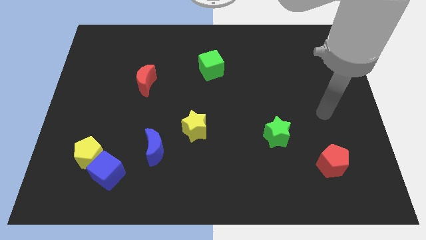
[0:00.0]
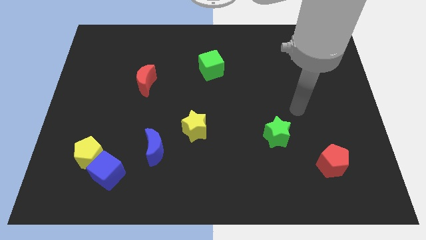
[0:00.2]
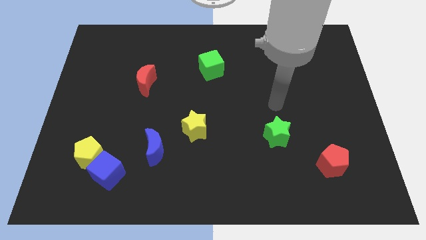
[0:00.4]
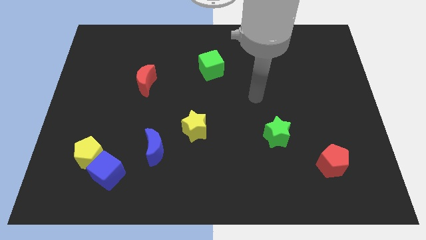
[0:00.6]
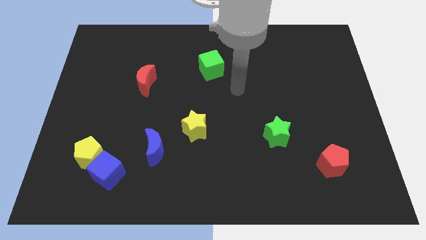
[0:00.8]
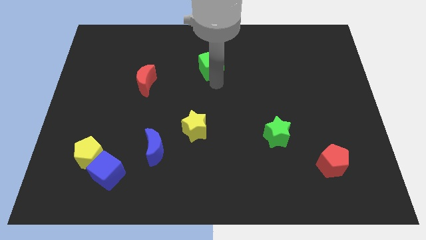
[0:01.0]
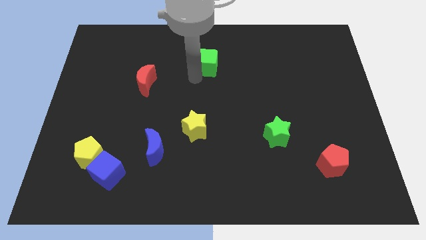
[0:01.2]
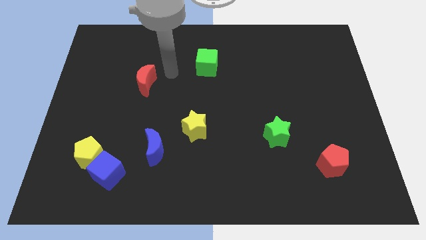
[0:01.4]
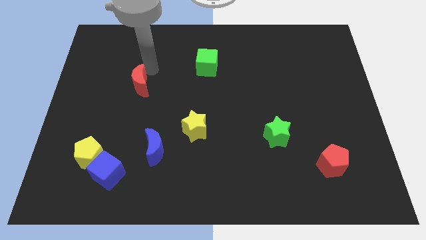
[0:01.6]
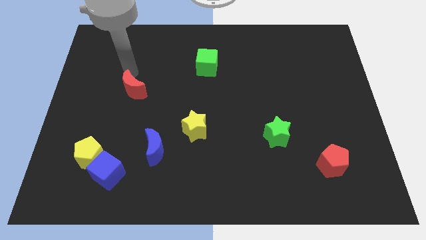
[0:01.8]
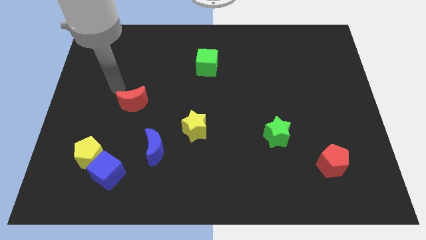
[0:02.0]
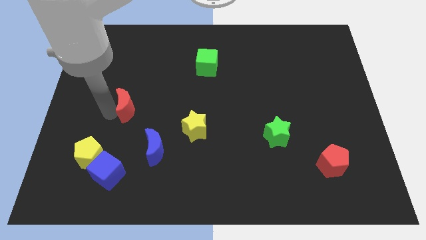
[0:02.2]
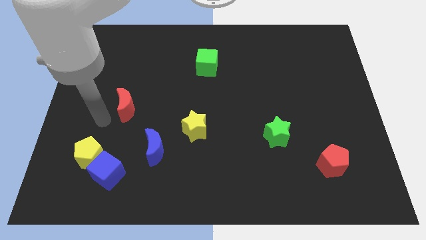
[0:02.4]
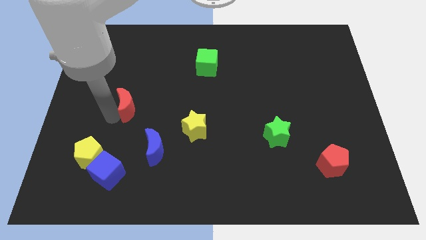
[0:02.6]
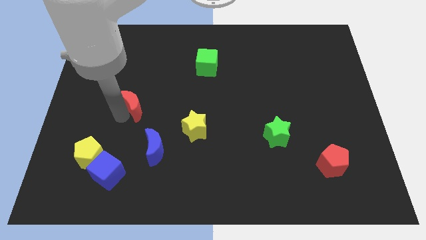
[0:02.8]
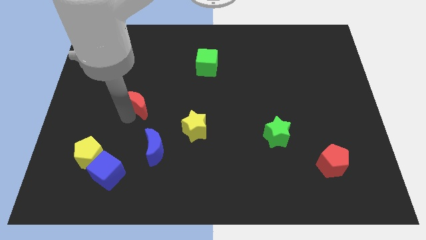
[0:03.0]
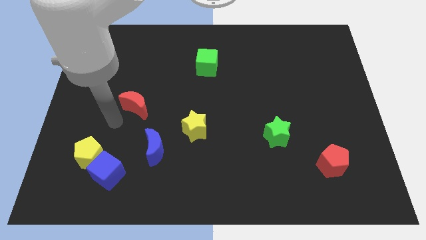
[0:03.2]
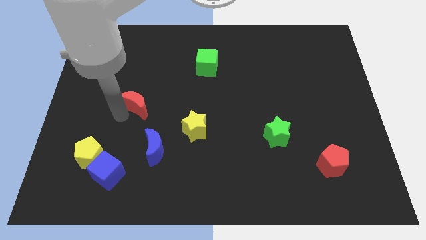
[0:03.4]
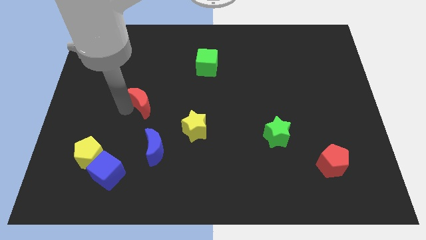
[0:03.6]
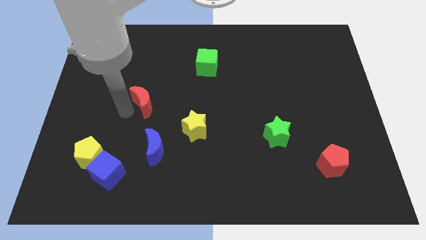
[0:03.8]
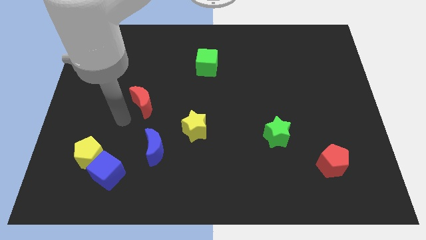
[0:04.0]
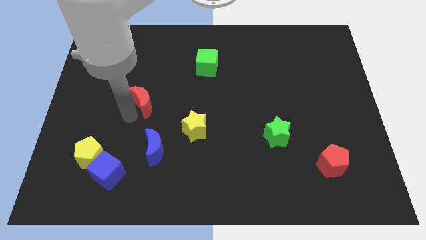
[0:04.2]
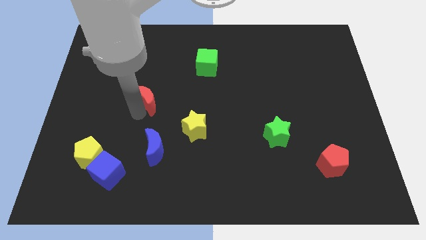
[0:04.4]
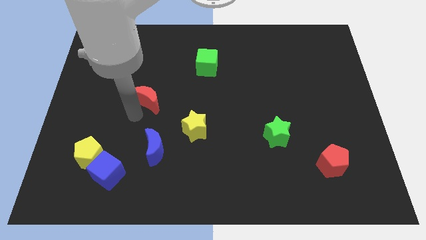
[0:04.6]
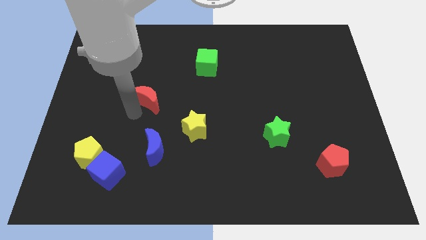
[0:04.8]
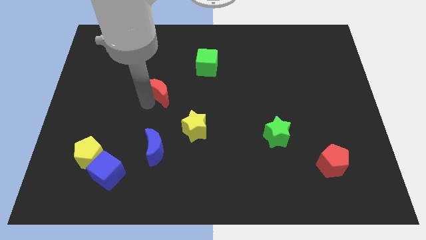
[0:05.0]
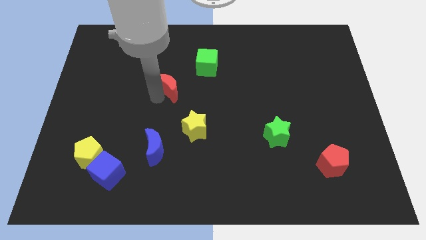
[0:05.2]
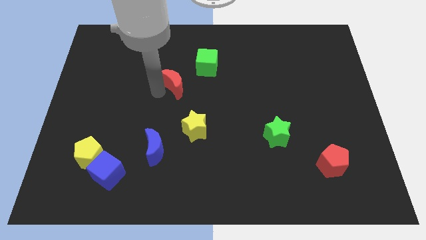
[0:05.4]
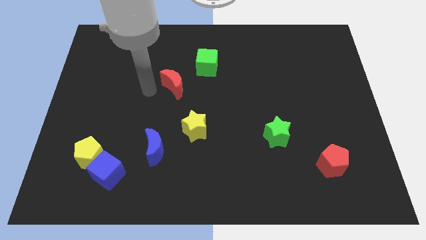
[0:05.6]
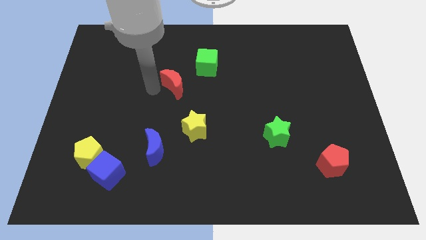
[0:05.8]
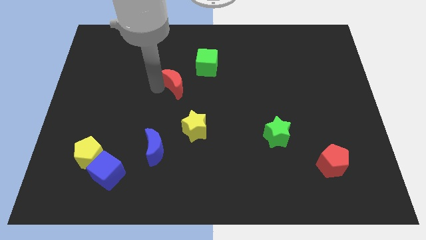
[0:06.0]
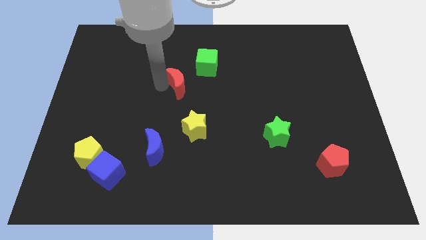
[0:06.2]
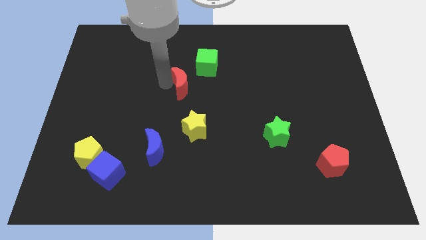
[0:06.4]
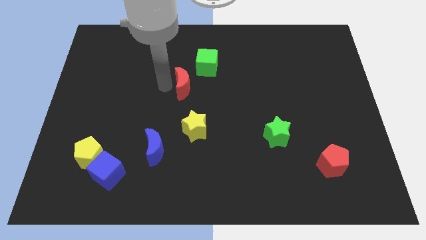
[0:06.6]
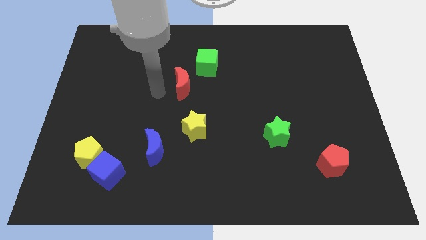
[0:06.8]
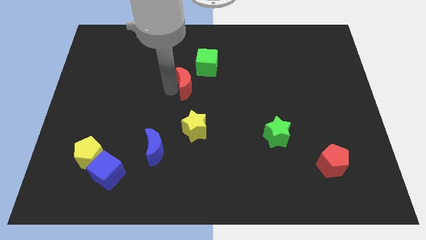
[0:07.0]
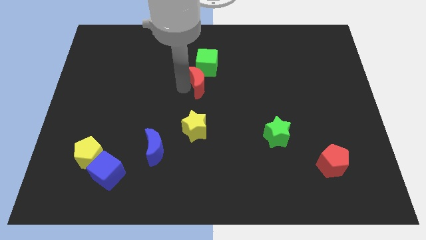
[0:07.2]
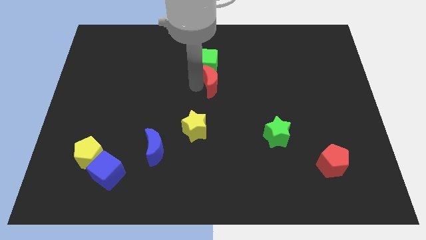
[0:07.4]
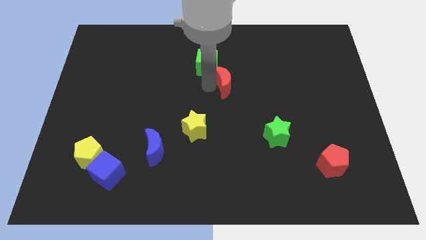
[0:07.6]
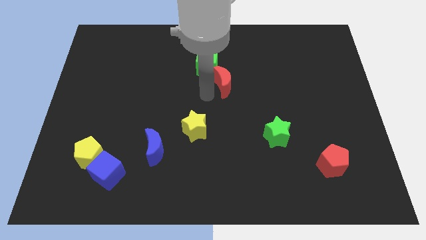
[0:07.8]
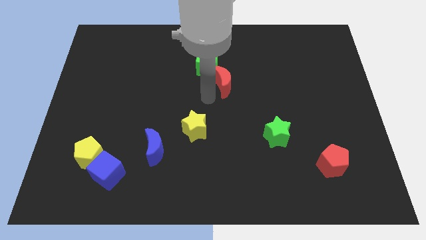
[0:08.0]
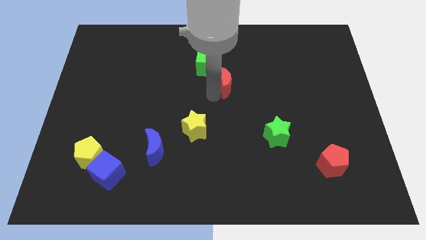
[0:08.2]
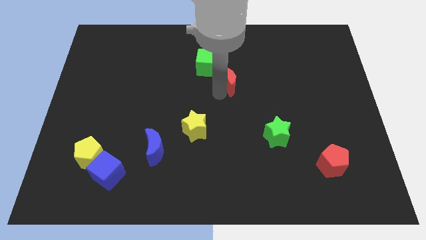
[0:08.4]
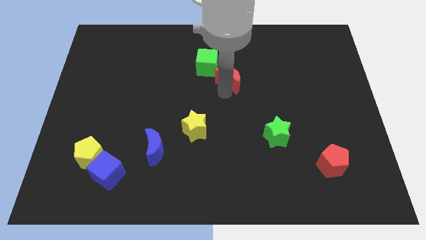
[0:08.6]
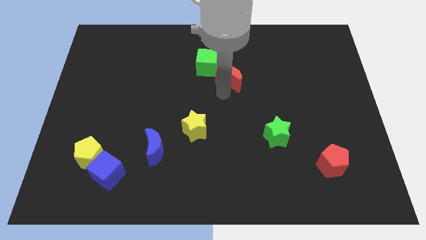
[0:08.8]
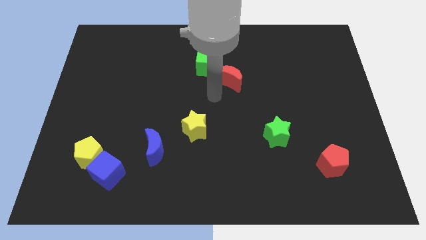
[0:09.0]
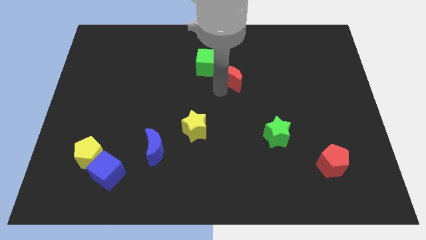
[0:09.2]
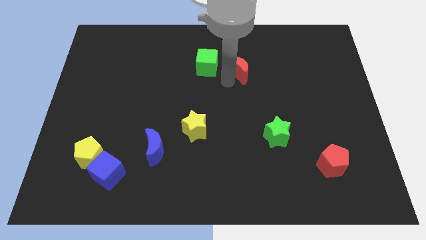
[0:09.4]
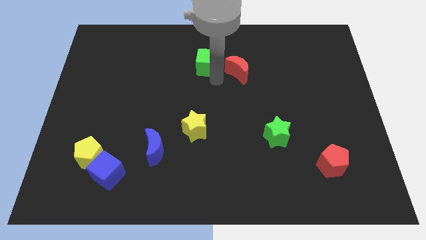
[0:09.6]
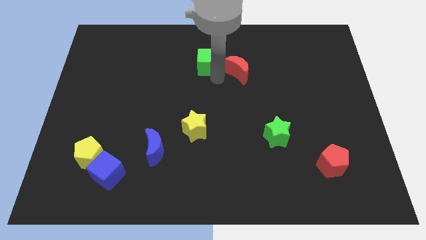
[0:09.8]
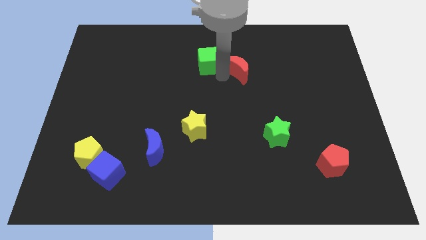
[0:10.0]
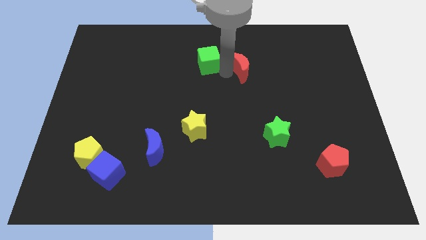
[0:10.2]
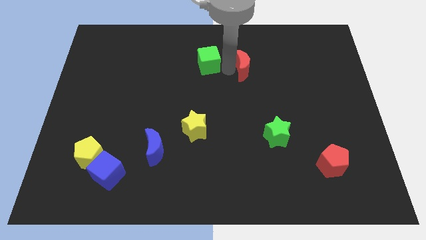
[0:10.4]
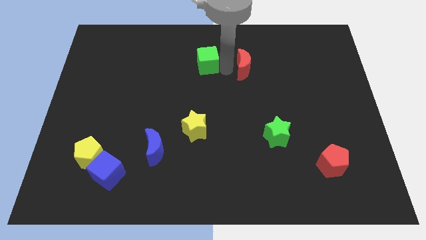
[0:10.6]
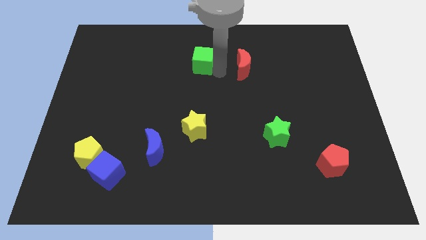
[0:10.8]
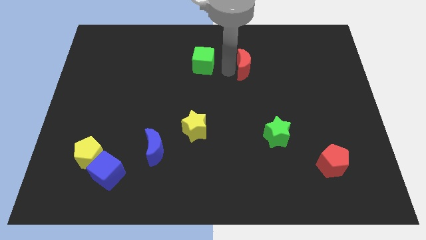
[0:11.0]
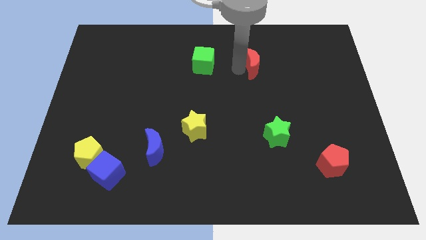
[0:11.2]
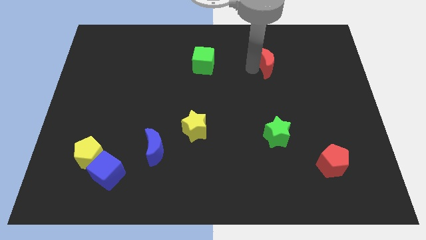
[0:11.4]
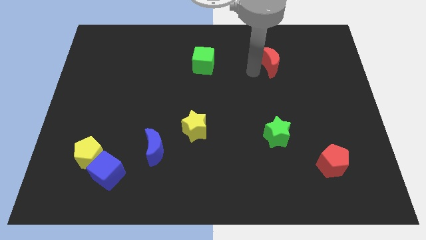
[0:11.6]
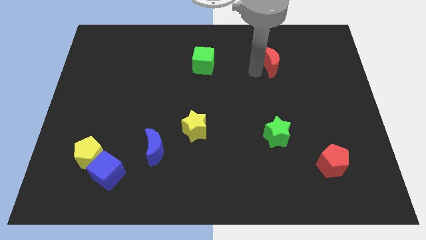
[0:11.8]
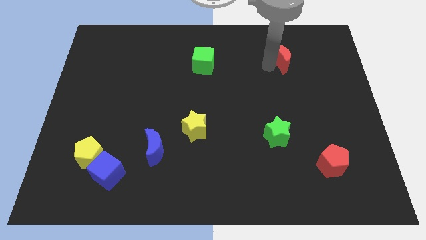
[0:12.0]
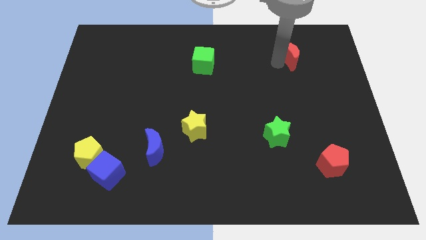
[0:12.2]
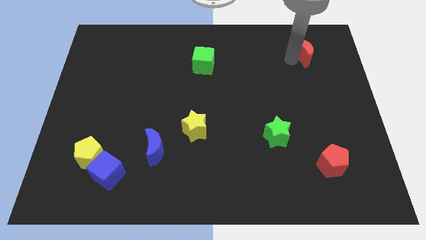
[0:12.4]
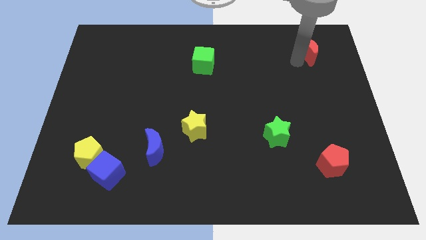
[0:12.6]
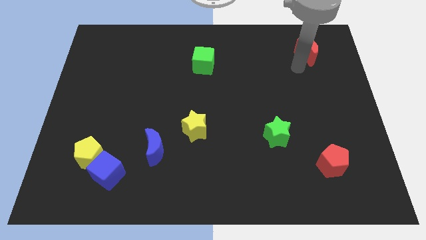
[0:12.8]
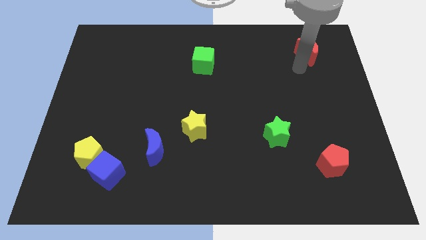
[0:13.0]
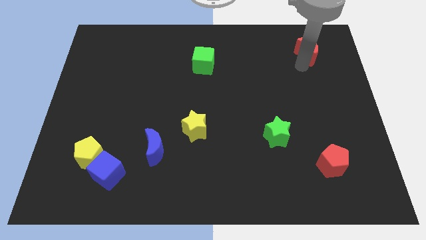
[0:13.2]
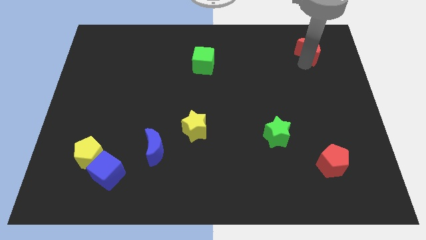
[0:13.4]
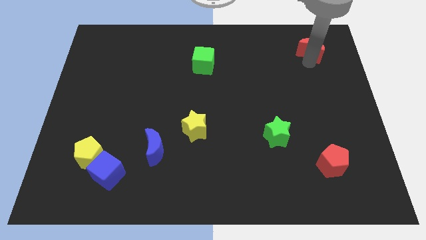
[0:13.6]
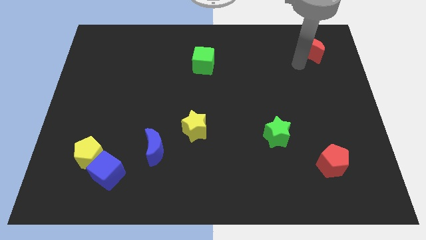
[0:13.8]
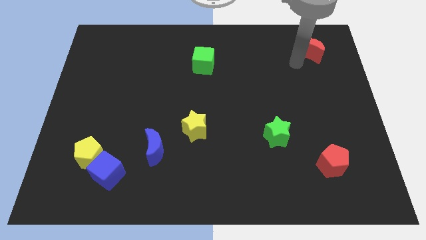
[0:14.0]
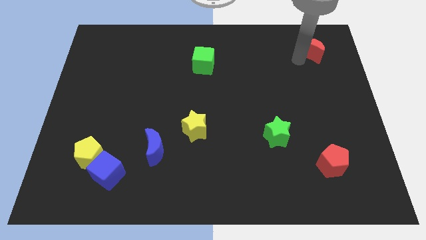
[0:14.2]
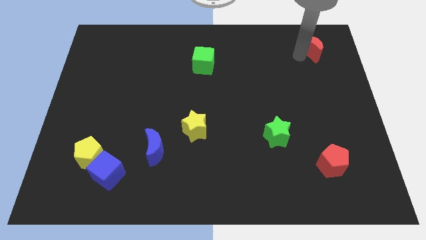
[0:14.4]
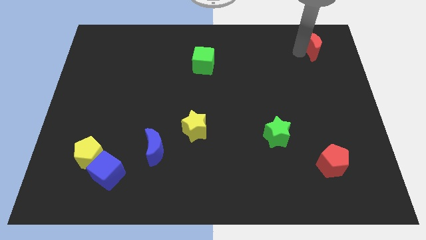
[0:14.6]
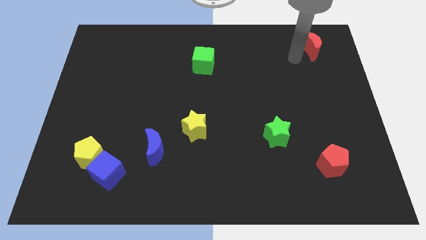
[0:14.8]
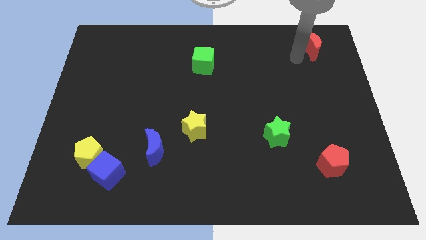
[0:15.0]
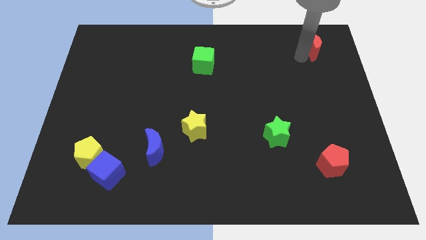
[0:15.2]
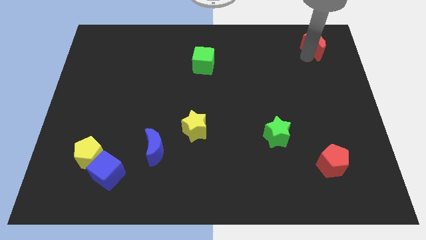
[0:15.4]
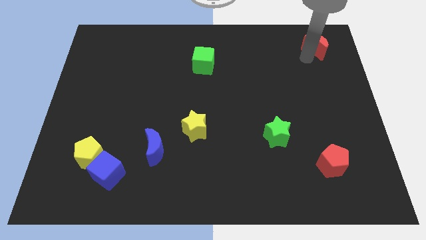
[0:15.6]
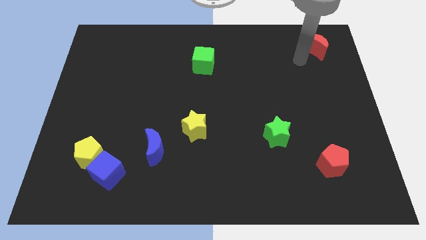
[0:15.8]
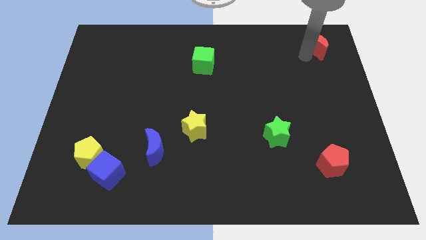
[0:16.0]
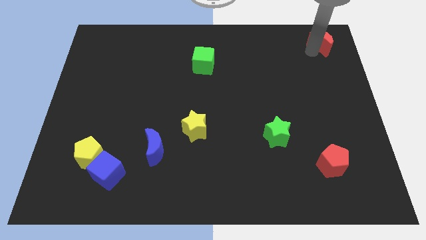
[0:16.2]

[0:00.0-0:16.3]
slide the red moon to the top right of the board
